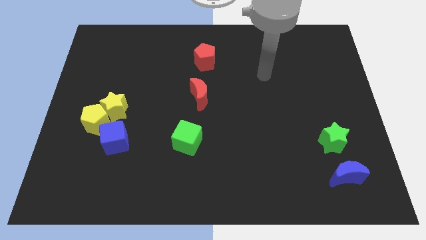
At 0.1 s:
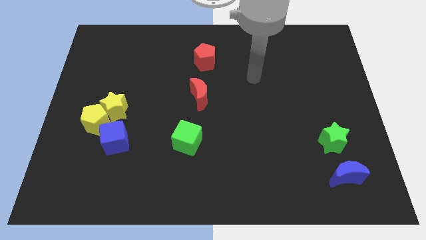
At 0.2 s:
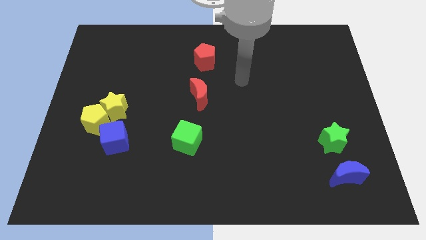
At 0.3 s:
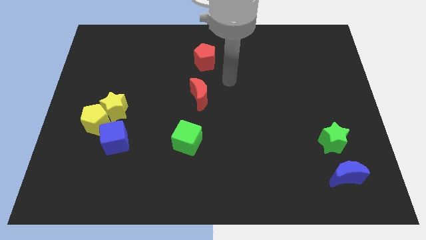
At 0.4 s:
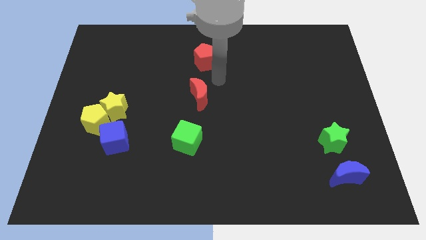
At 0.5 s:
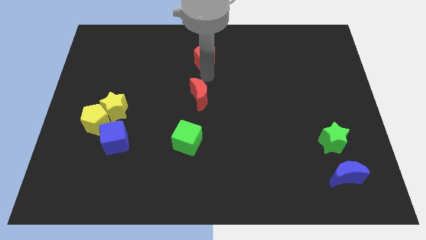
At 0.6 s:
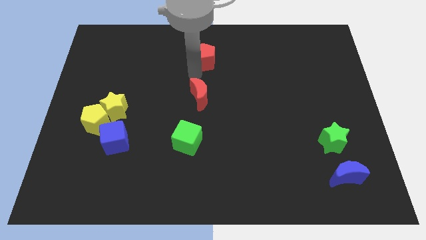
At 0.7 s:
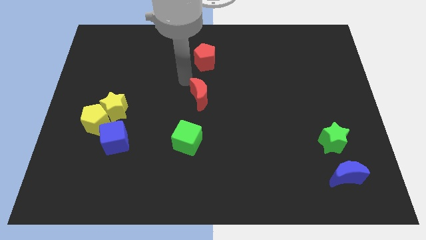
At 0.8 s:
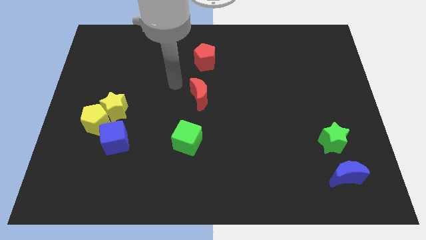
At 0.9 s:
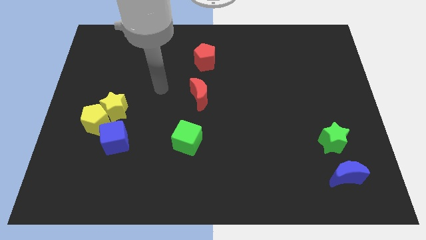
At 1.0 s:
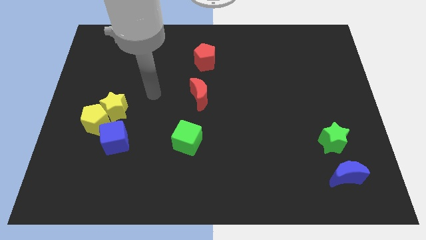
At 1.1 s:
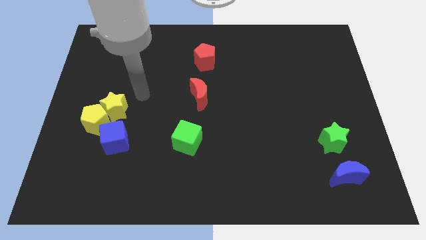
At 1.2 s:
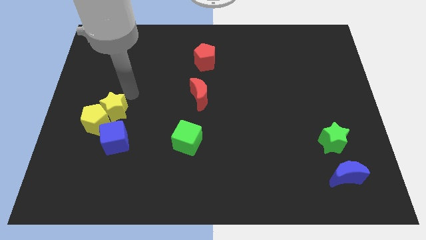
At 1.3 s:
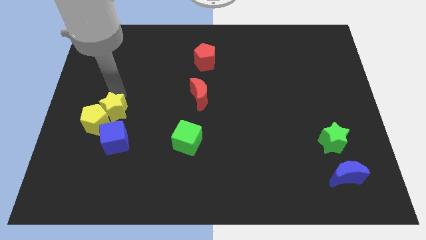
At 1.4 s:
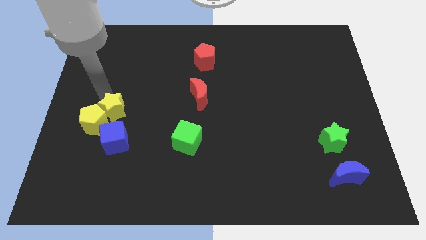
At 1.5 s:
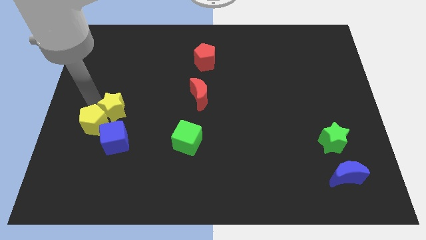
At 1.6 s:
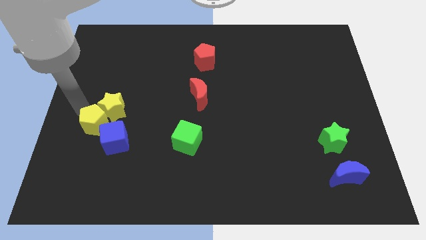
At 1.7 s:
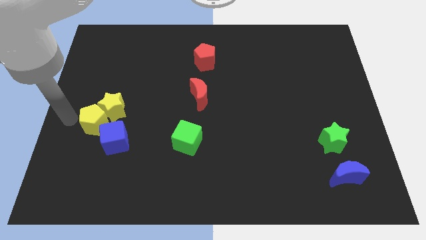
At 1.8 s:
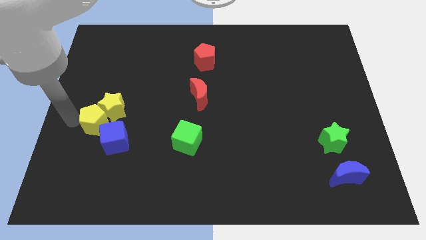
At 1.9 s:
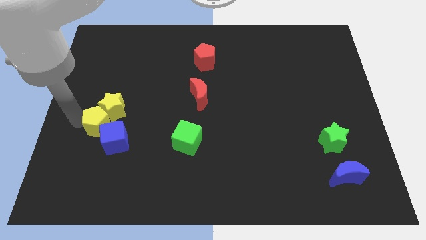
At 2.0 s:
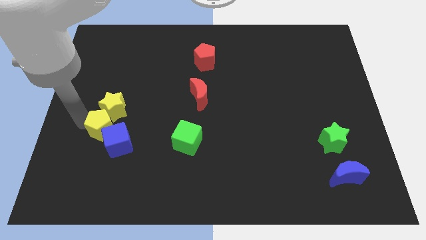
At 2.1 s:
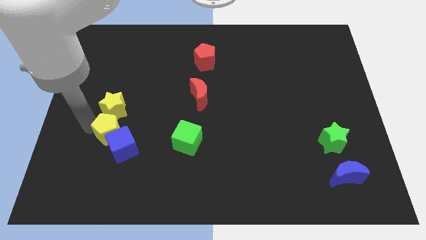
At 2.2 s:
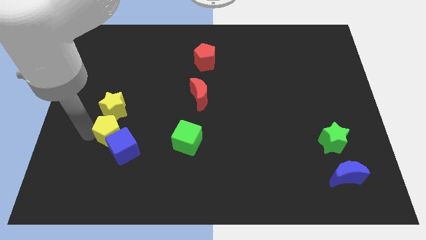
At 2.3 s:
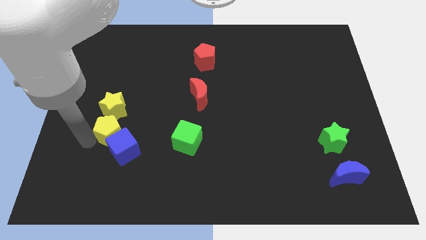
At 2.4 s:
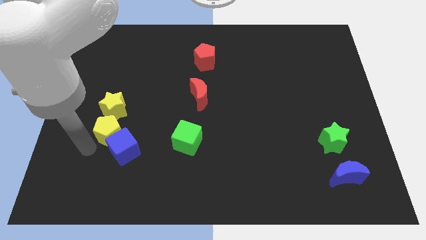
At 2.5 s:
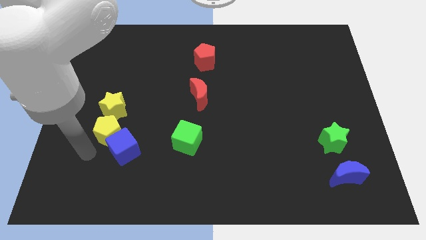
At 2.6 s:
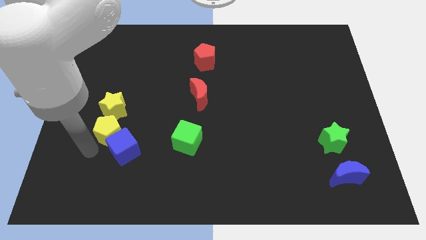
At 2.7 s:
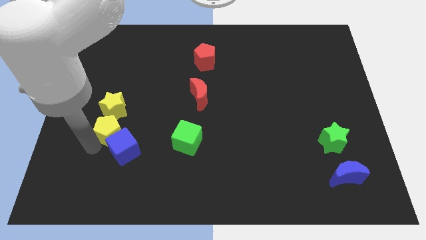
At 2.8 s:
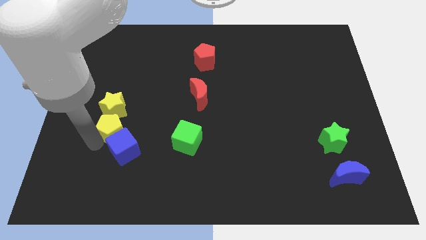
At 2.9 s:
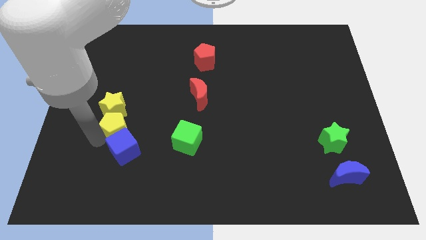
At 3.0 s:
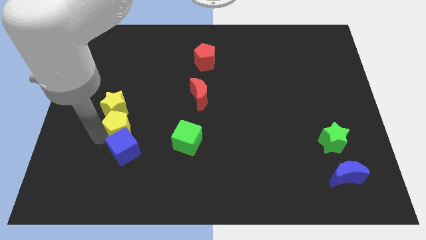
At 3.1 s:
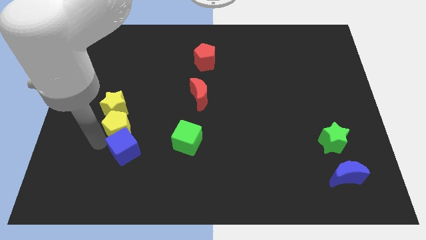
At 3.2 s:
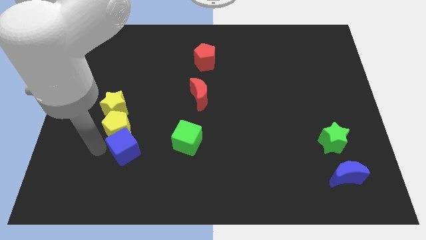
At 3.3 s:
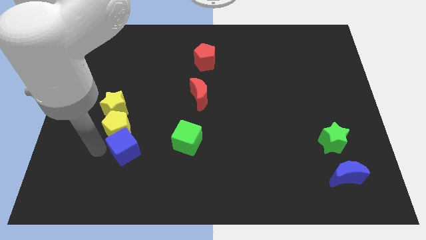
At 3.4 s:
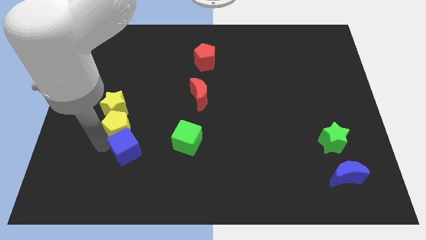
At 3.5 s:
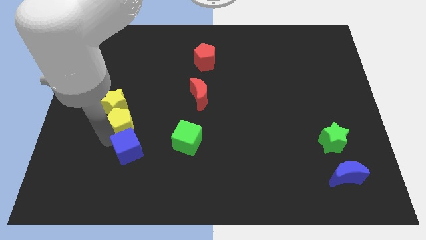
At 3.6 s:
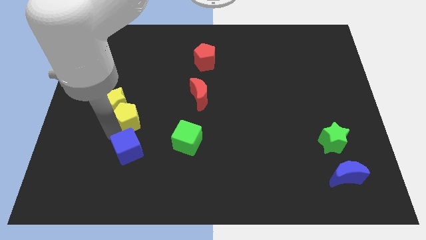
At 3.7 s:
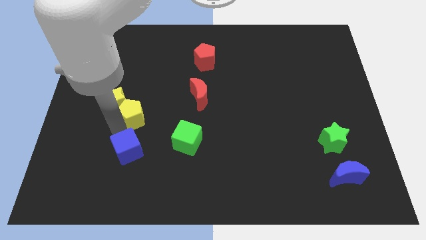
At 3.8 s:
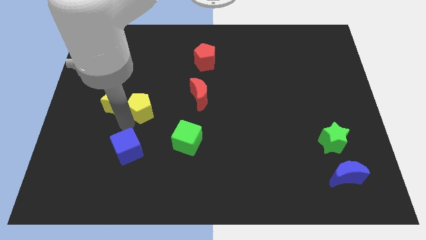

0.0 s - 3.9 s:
slide the yellow pentagon somewhat up and right diagonally

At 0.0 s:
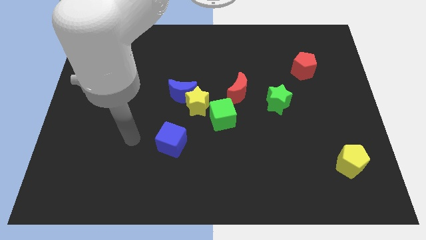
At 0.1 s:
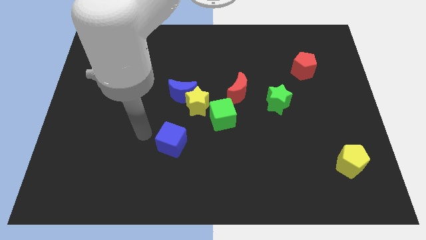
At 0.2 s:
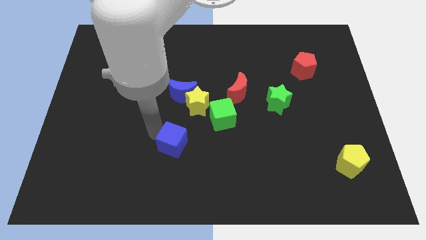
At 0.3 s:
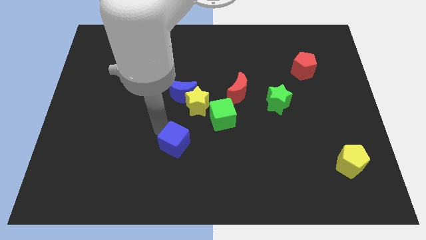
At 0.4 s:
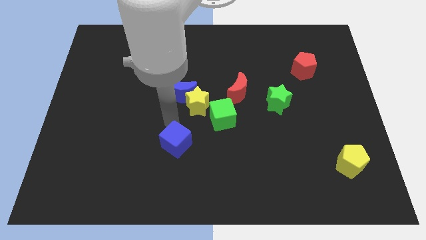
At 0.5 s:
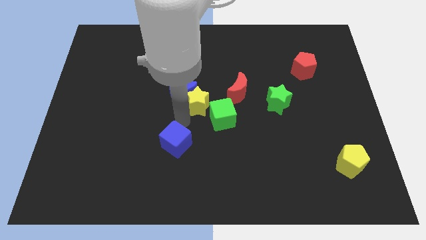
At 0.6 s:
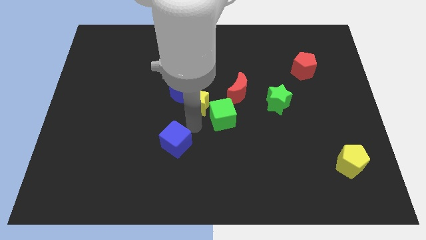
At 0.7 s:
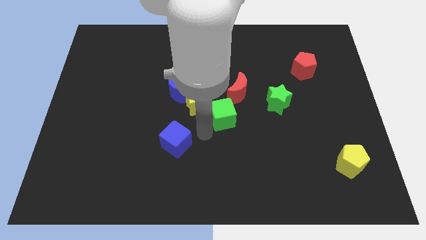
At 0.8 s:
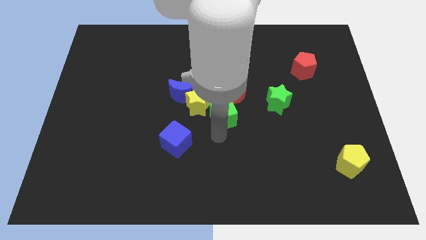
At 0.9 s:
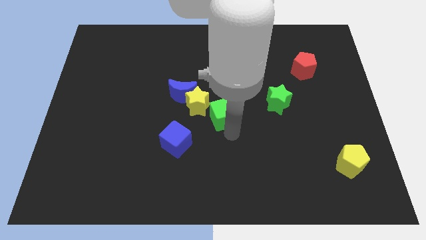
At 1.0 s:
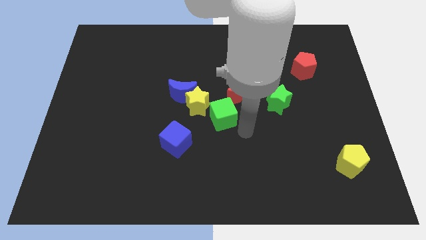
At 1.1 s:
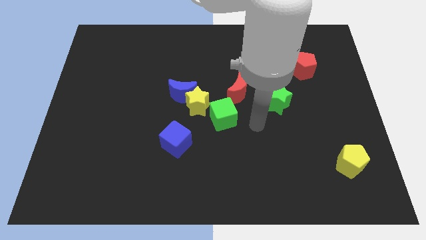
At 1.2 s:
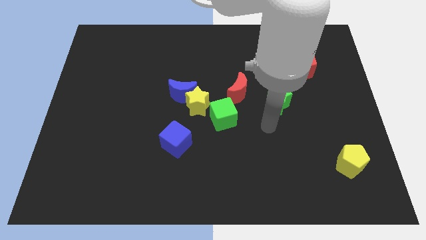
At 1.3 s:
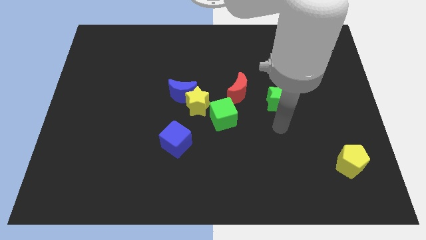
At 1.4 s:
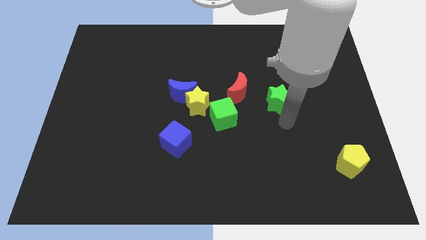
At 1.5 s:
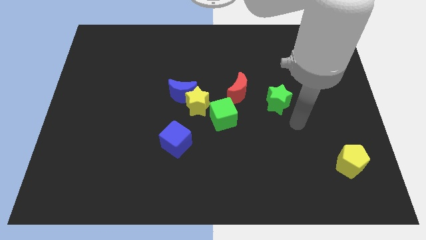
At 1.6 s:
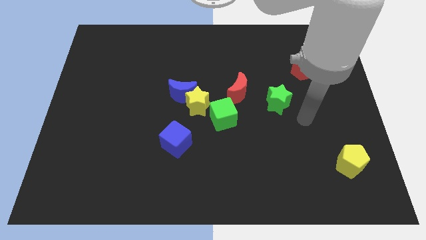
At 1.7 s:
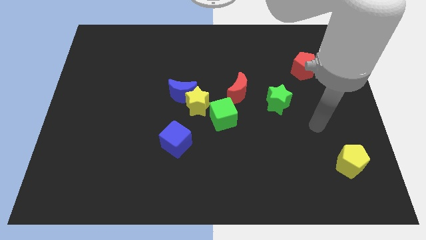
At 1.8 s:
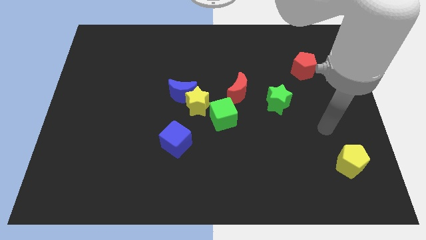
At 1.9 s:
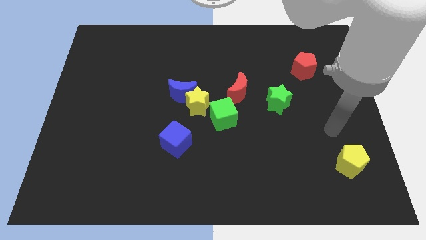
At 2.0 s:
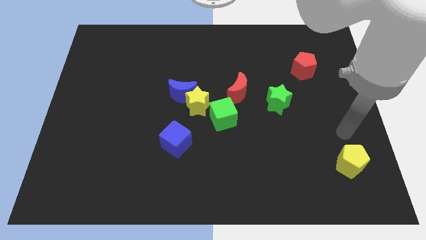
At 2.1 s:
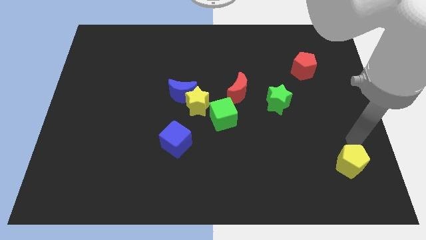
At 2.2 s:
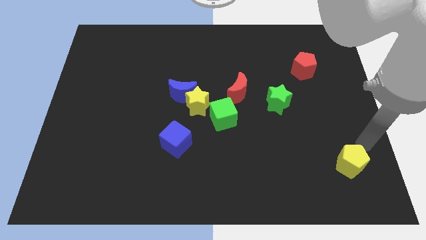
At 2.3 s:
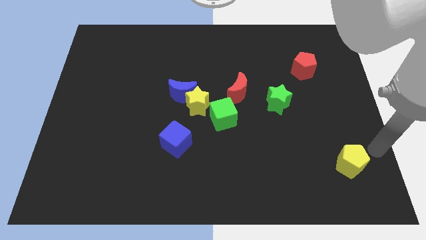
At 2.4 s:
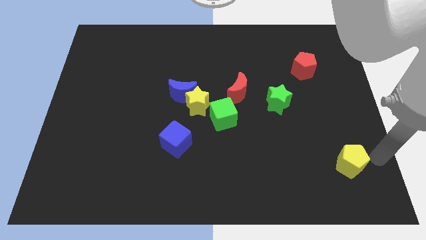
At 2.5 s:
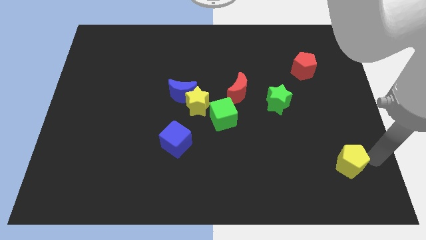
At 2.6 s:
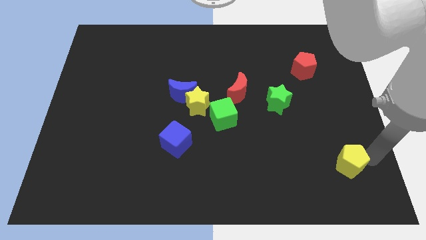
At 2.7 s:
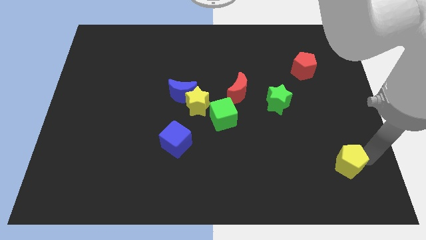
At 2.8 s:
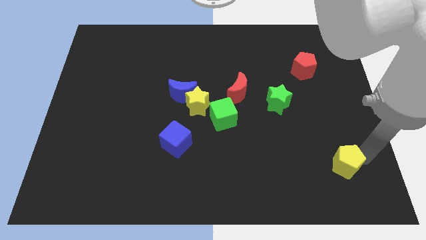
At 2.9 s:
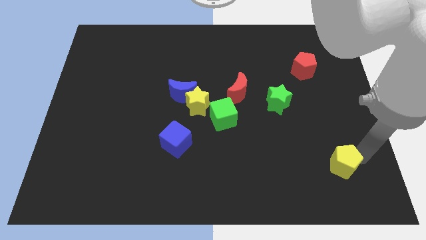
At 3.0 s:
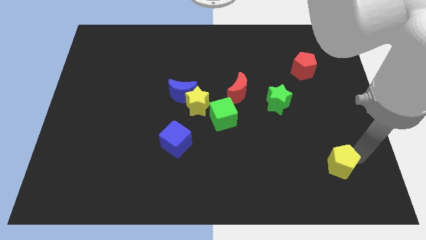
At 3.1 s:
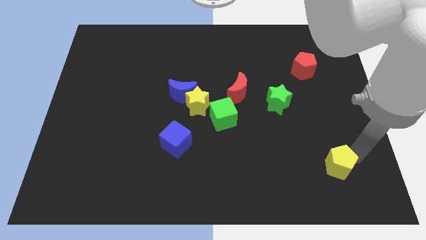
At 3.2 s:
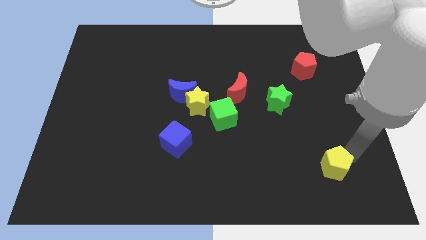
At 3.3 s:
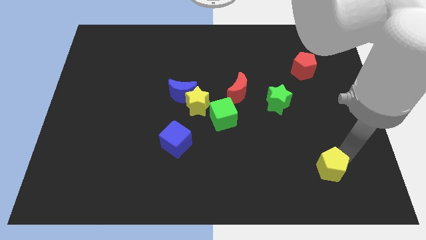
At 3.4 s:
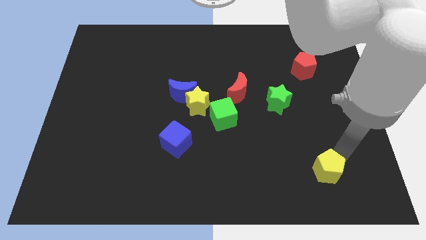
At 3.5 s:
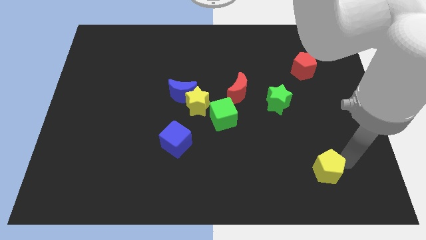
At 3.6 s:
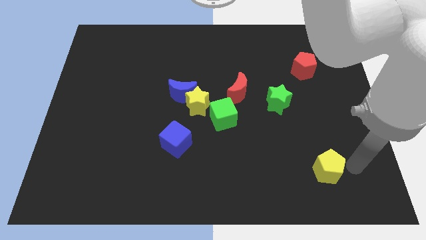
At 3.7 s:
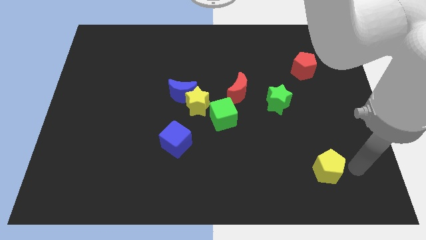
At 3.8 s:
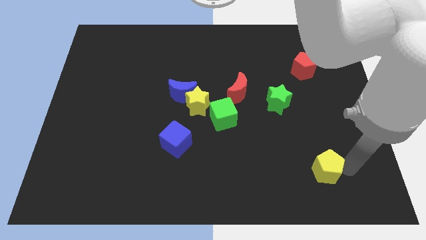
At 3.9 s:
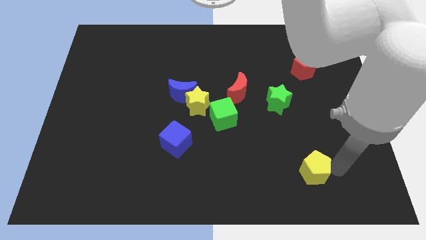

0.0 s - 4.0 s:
push the yellow pentagon left a little

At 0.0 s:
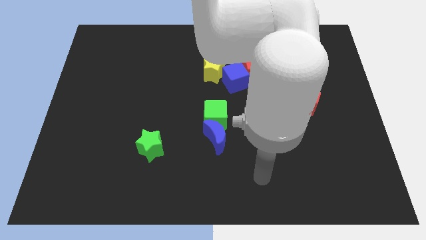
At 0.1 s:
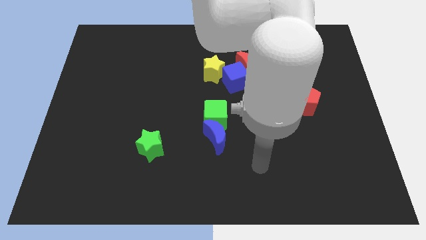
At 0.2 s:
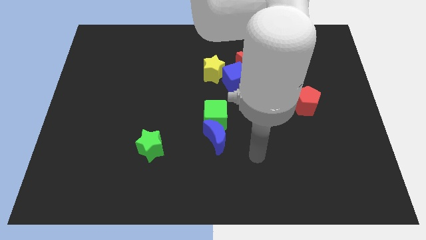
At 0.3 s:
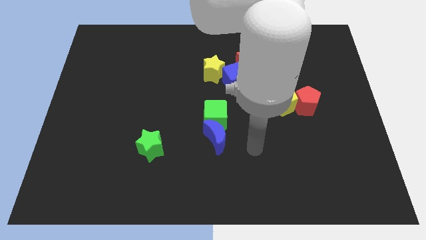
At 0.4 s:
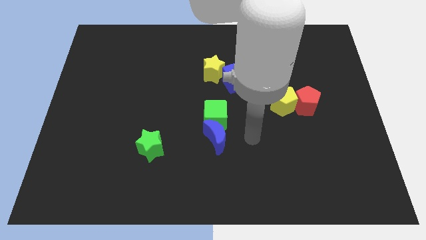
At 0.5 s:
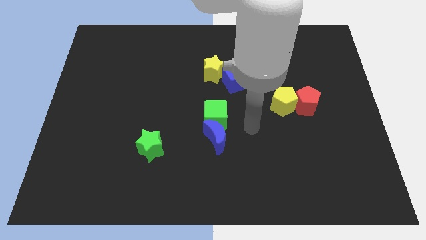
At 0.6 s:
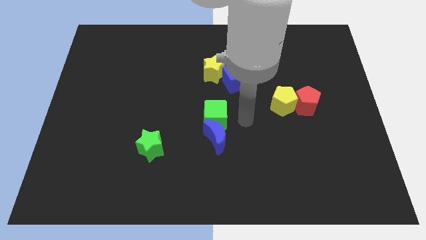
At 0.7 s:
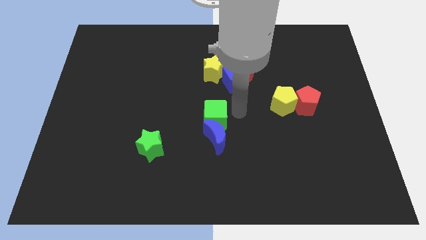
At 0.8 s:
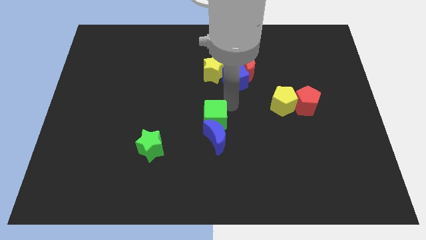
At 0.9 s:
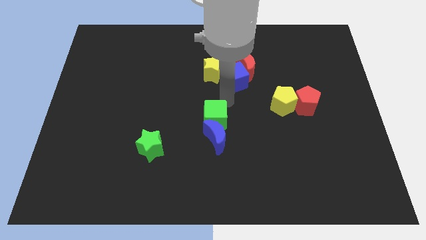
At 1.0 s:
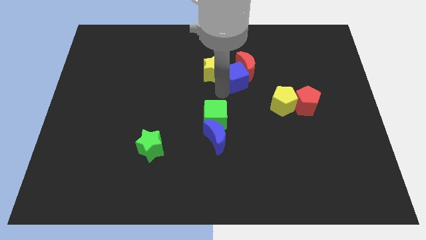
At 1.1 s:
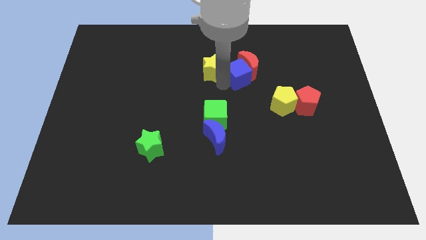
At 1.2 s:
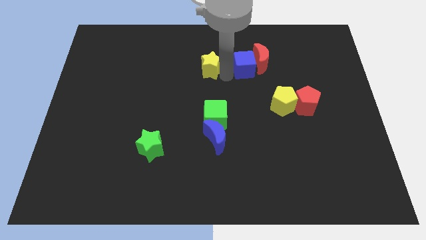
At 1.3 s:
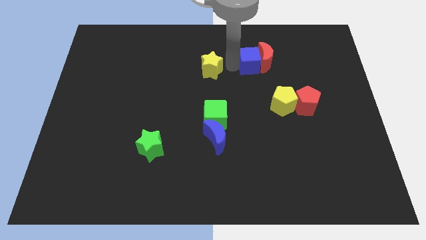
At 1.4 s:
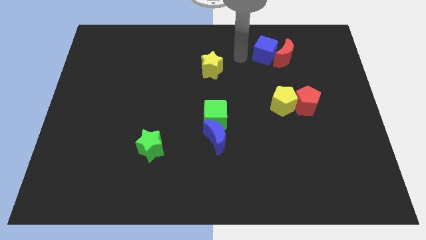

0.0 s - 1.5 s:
slightly push the red moon right
